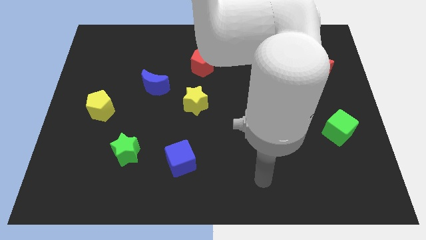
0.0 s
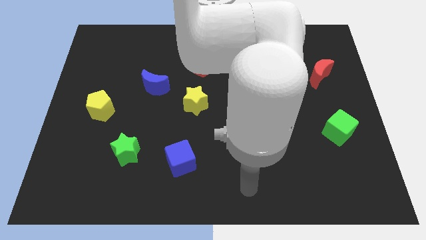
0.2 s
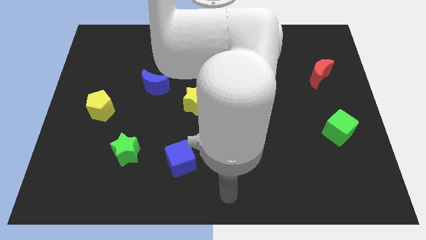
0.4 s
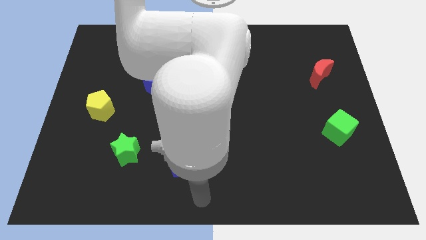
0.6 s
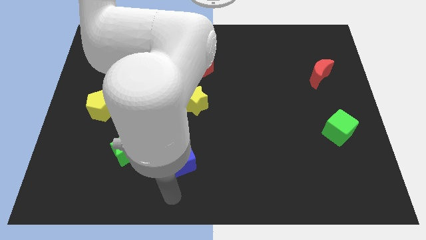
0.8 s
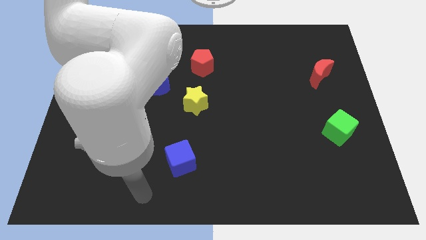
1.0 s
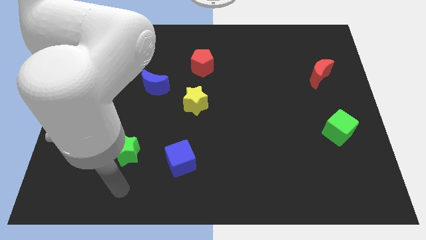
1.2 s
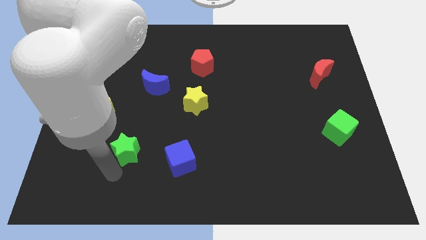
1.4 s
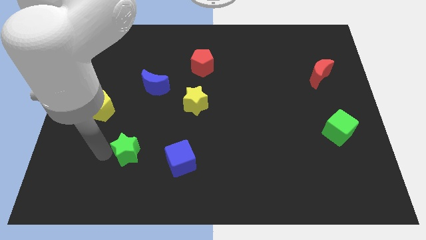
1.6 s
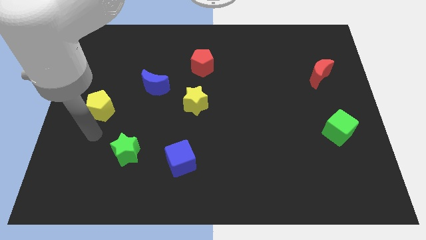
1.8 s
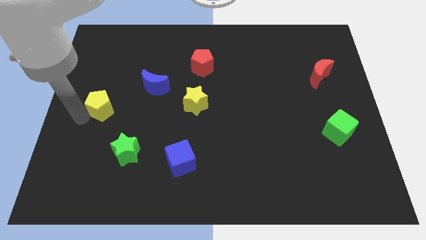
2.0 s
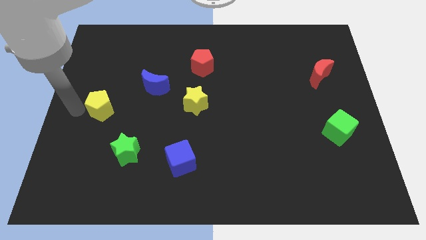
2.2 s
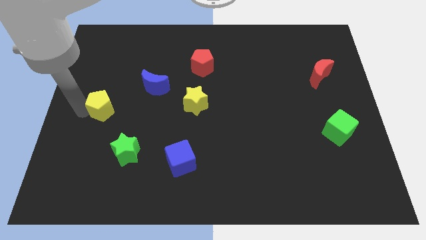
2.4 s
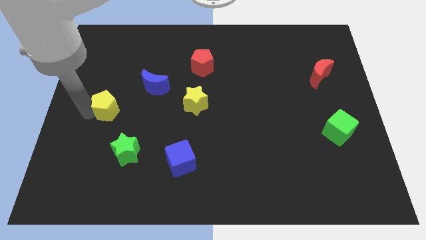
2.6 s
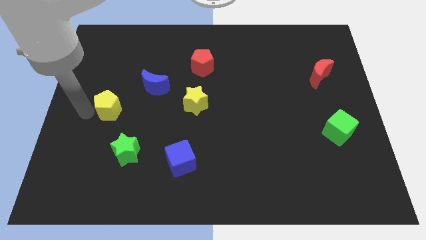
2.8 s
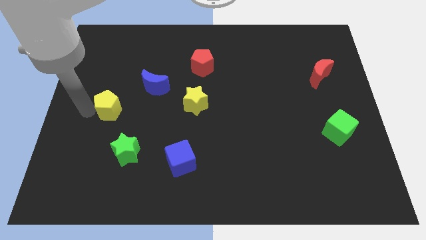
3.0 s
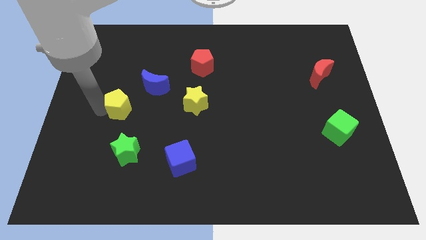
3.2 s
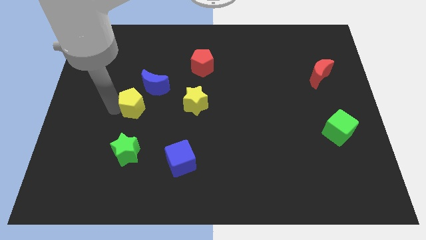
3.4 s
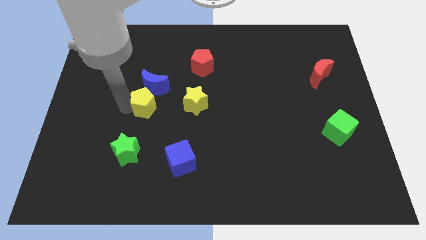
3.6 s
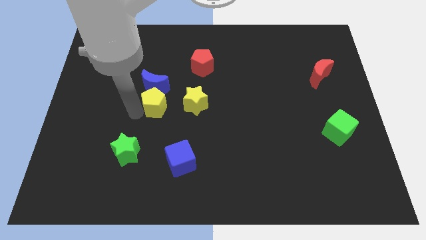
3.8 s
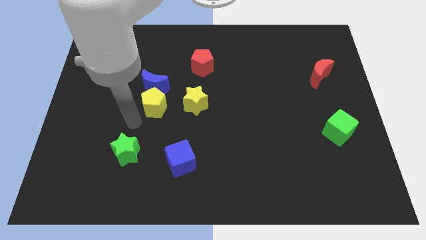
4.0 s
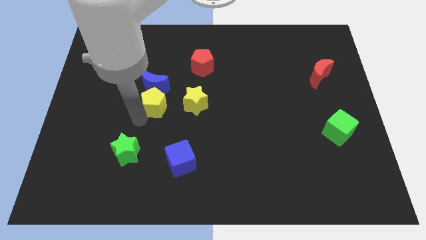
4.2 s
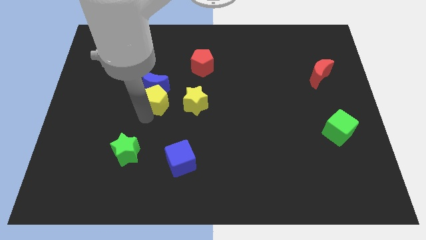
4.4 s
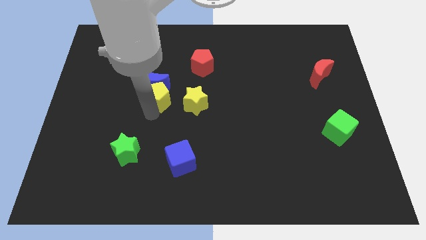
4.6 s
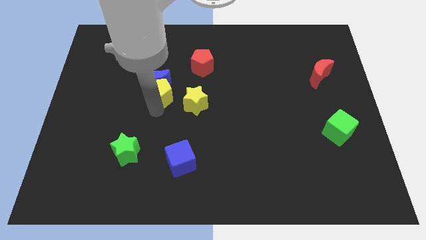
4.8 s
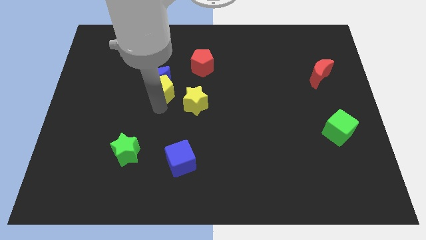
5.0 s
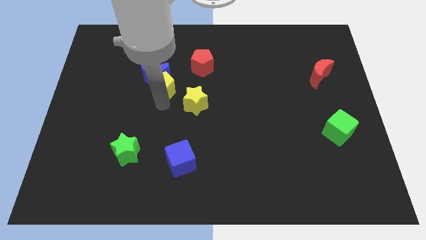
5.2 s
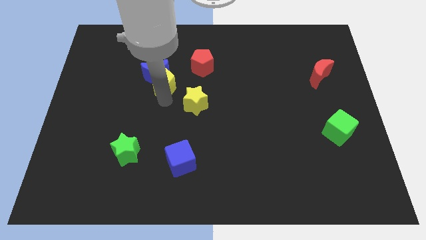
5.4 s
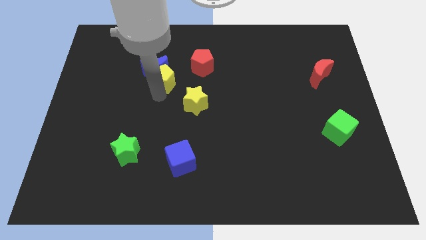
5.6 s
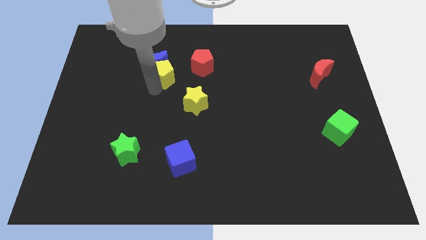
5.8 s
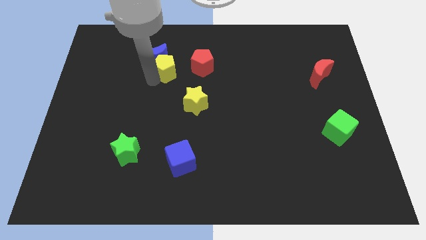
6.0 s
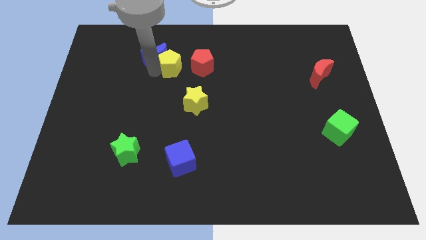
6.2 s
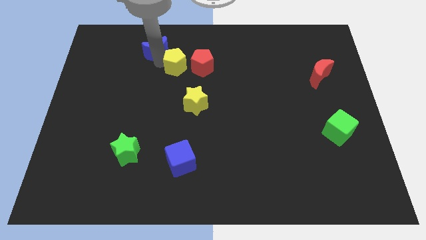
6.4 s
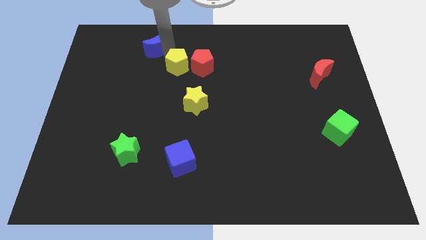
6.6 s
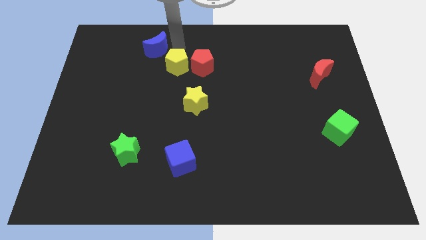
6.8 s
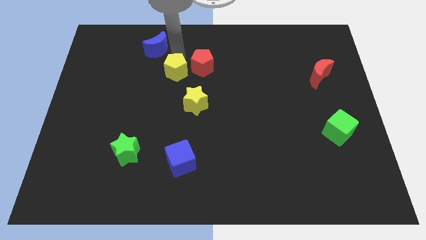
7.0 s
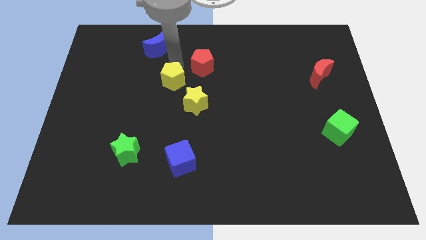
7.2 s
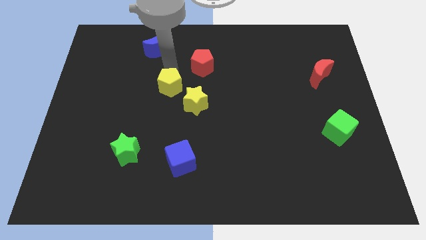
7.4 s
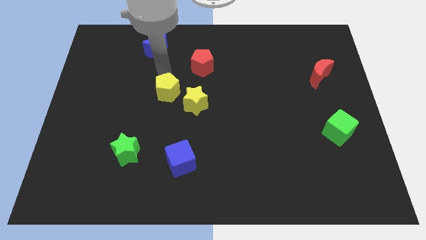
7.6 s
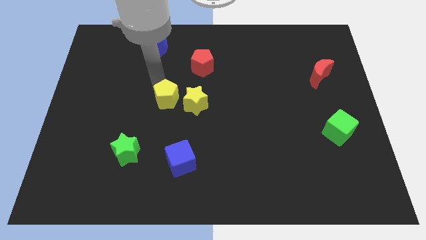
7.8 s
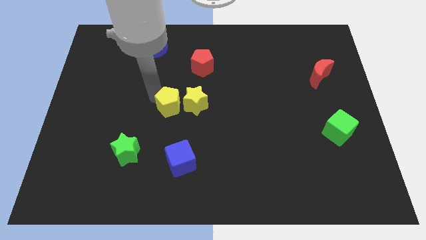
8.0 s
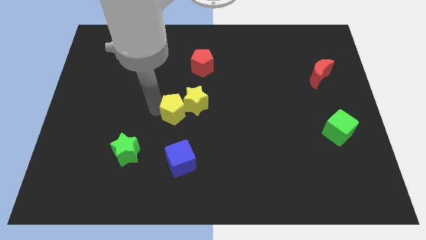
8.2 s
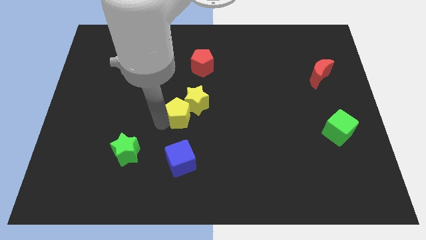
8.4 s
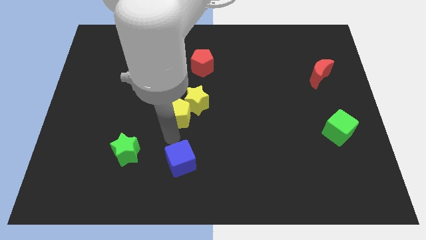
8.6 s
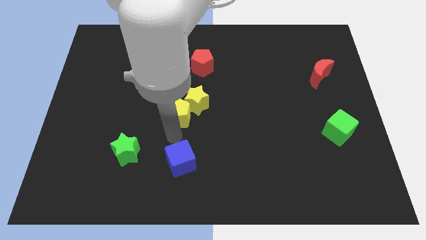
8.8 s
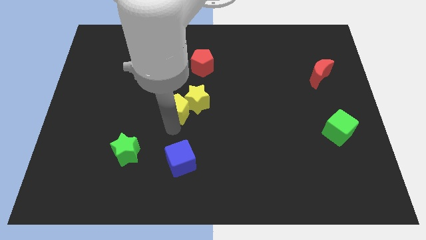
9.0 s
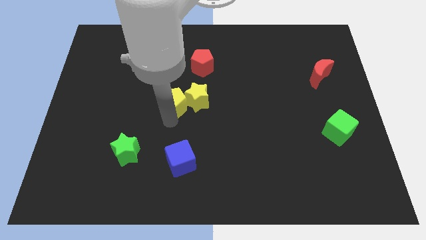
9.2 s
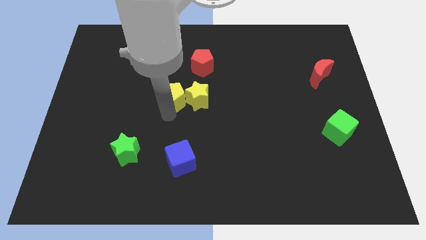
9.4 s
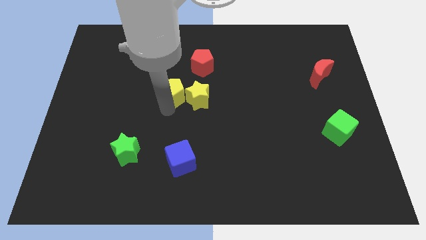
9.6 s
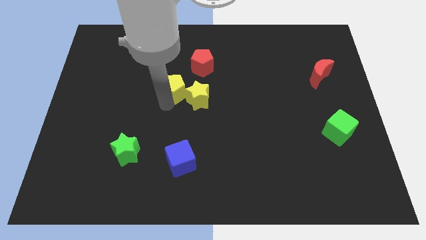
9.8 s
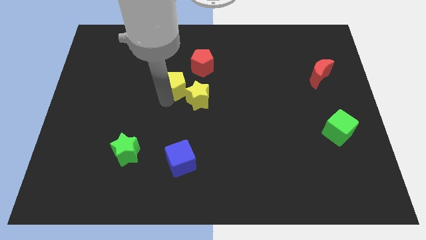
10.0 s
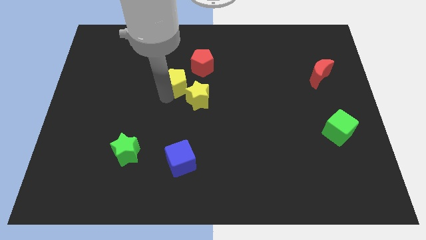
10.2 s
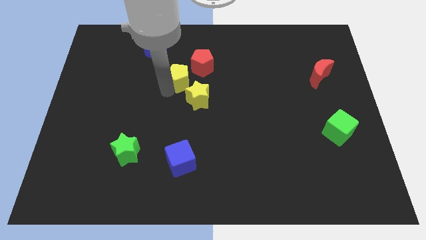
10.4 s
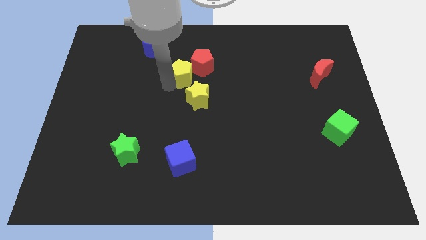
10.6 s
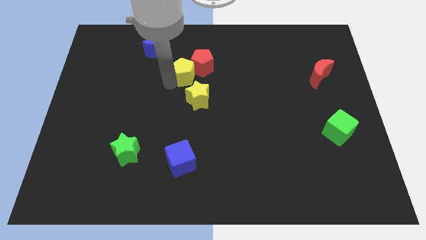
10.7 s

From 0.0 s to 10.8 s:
move the yellow pentagon towards the red pentagon

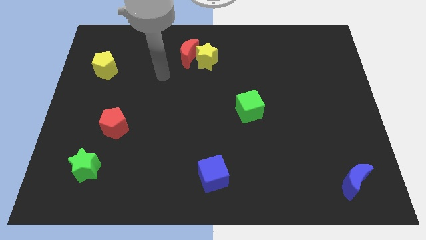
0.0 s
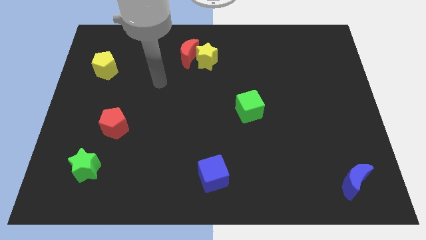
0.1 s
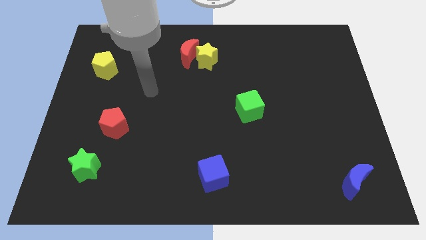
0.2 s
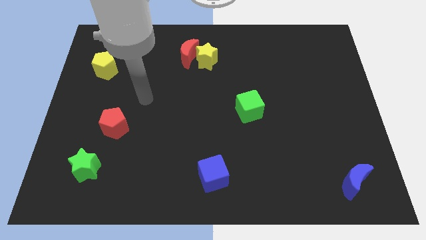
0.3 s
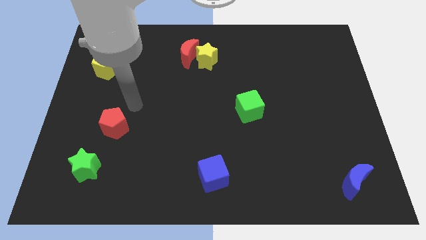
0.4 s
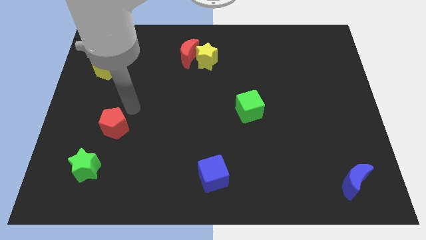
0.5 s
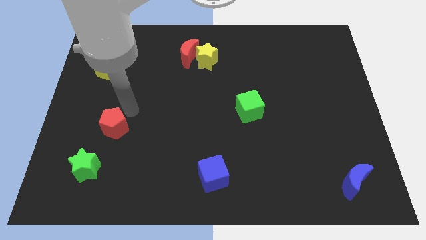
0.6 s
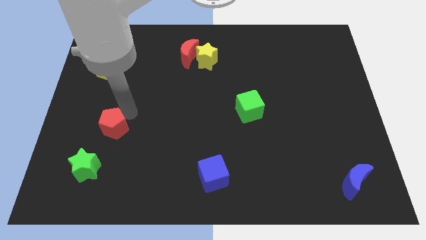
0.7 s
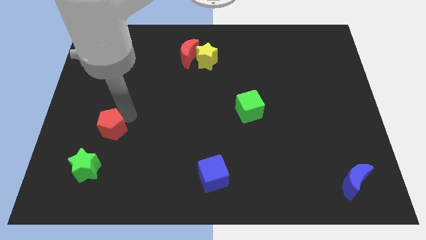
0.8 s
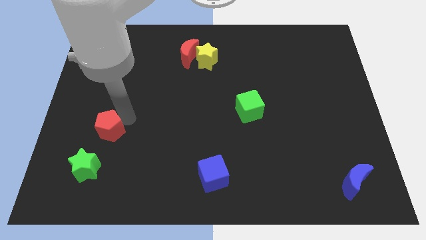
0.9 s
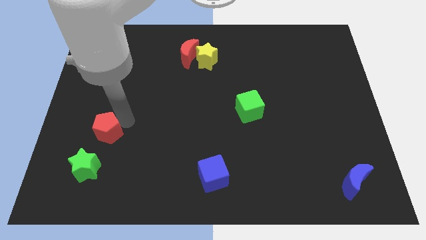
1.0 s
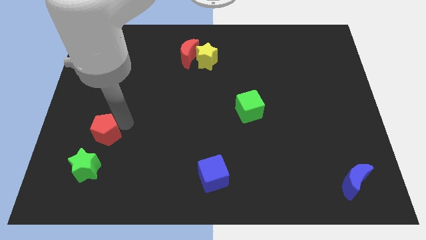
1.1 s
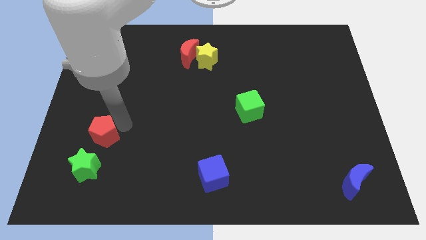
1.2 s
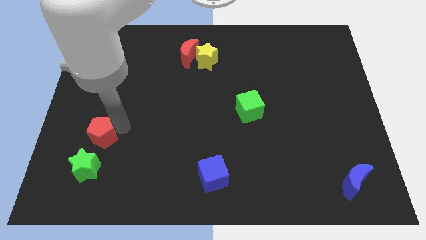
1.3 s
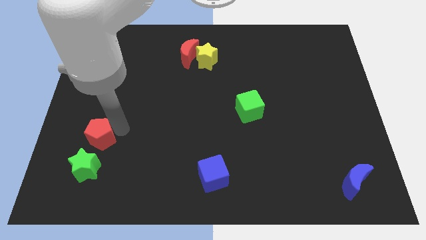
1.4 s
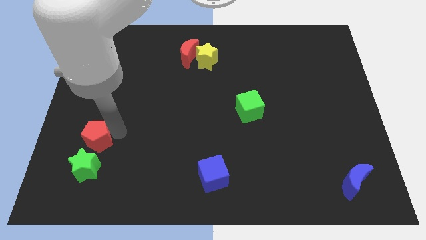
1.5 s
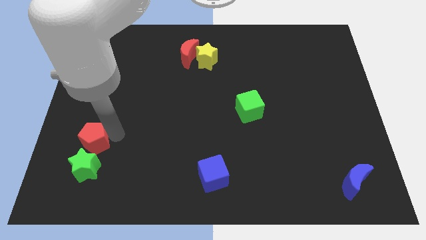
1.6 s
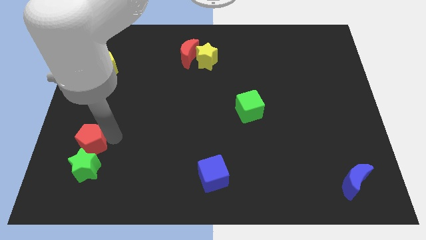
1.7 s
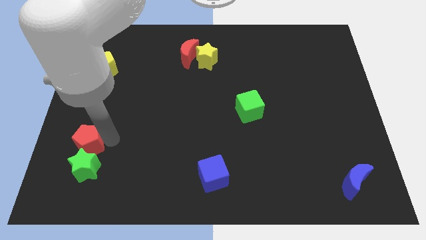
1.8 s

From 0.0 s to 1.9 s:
move the red pentagon close to the green star
